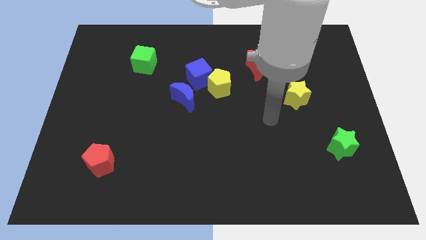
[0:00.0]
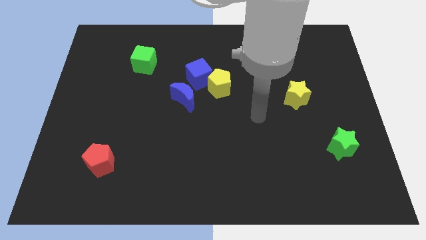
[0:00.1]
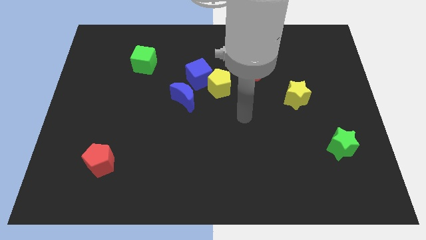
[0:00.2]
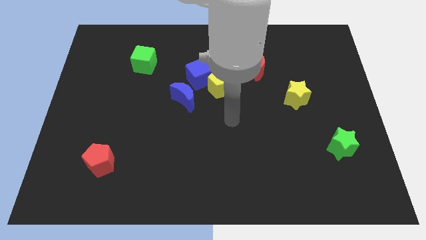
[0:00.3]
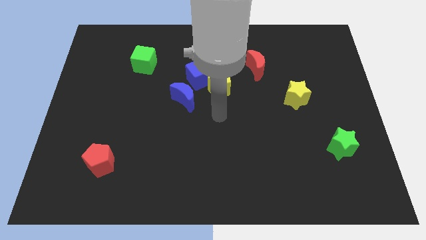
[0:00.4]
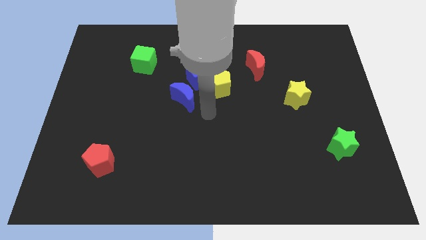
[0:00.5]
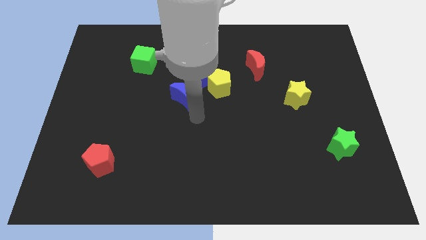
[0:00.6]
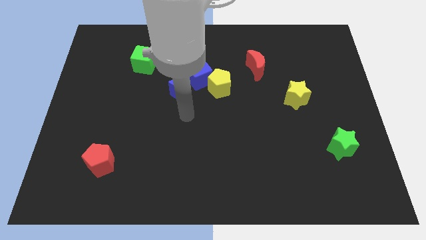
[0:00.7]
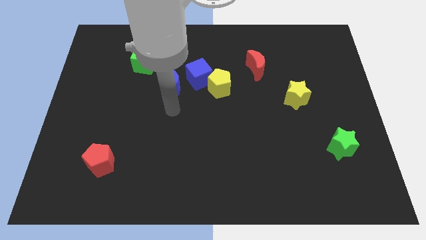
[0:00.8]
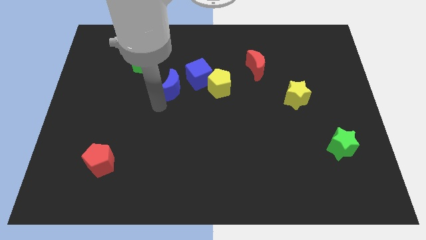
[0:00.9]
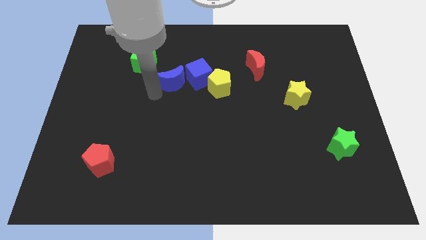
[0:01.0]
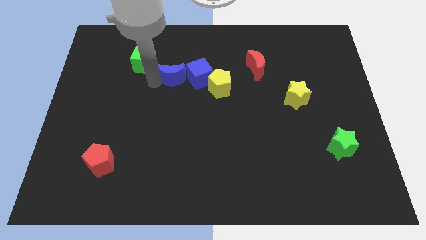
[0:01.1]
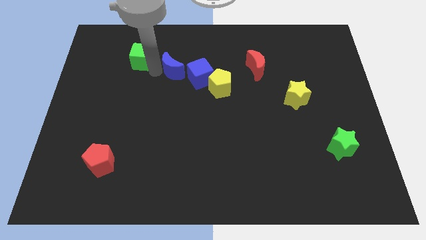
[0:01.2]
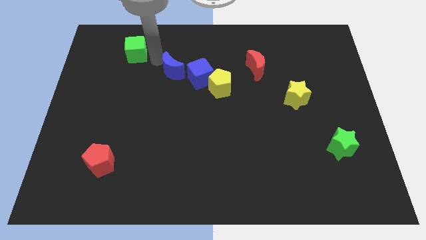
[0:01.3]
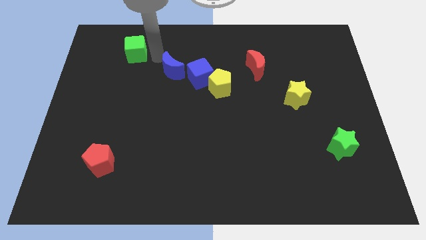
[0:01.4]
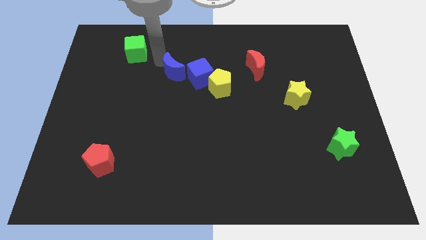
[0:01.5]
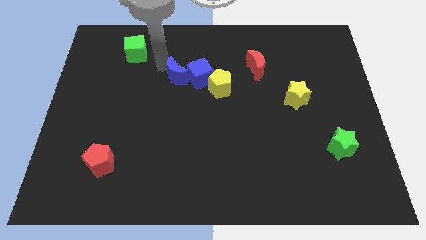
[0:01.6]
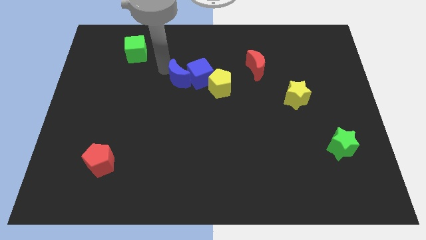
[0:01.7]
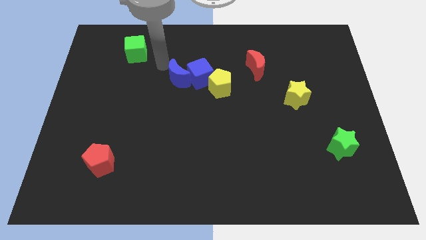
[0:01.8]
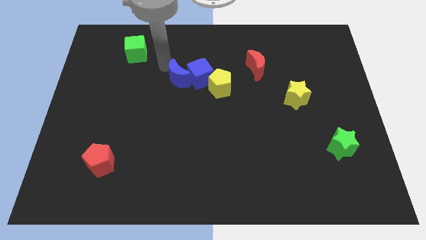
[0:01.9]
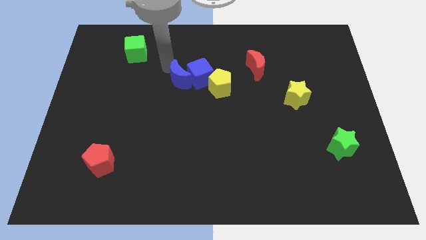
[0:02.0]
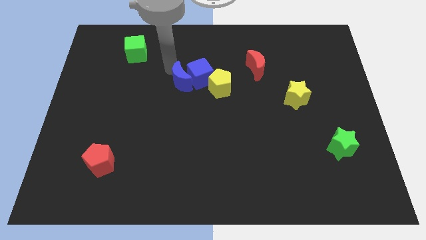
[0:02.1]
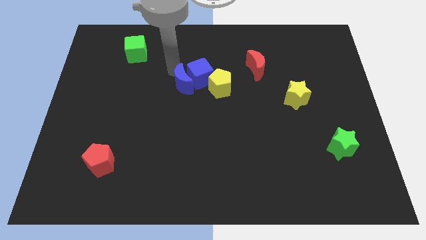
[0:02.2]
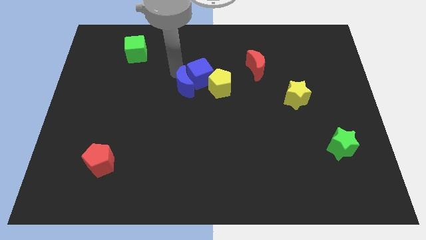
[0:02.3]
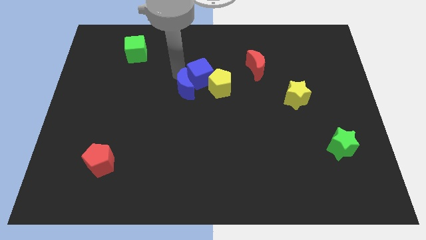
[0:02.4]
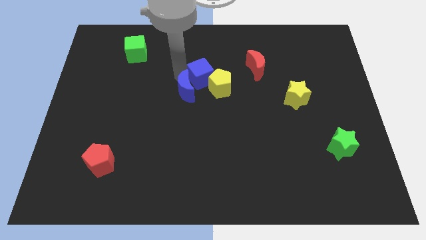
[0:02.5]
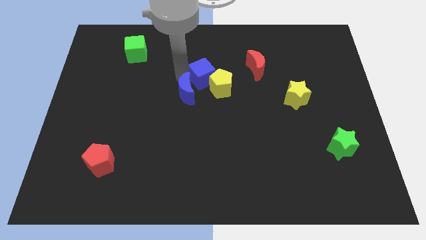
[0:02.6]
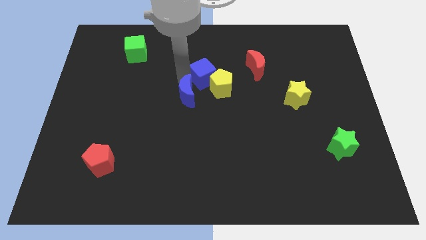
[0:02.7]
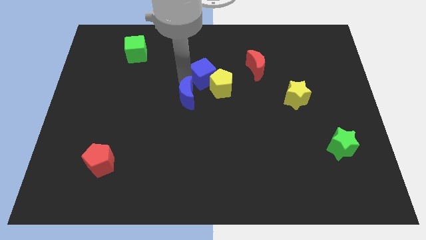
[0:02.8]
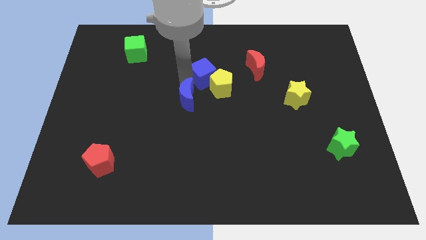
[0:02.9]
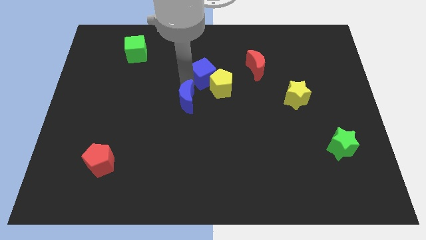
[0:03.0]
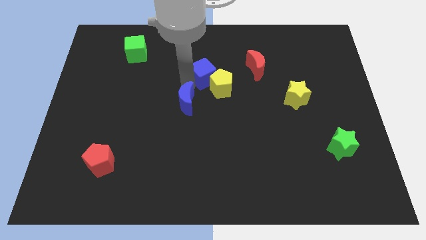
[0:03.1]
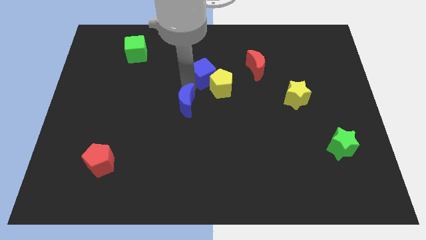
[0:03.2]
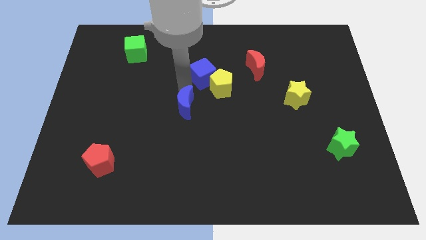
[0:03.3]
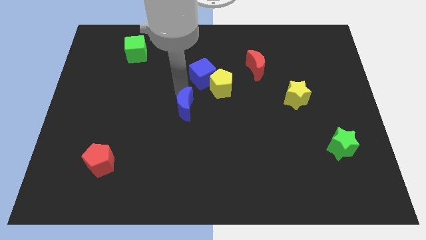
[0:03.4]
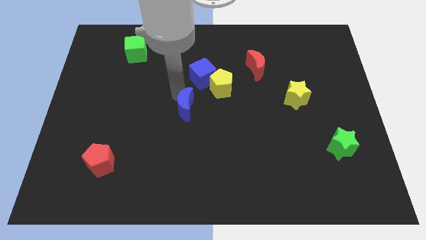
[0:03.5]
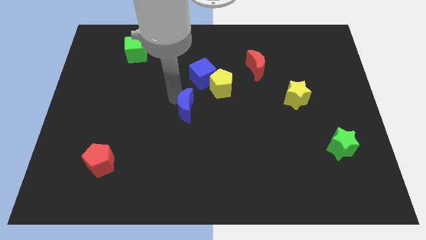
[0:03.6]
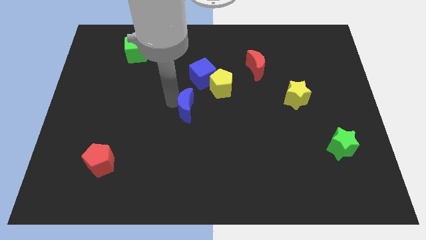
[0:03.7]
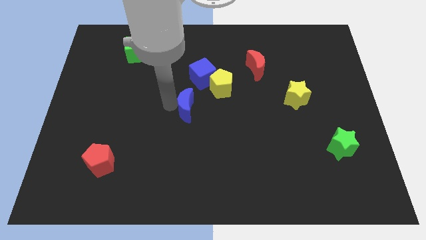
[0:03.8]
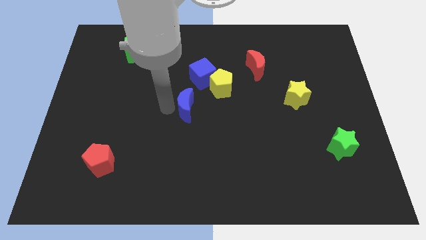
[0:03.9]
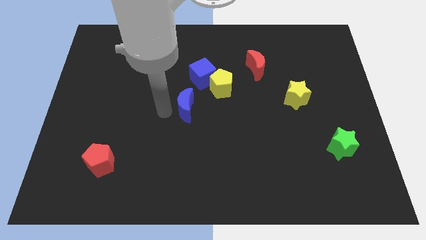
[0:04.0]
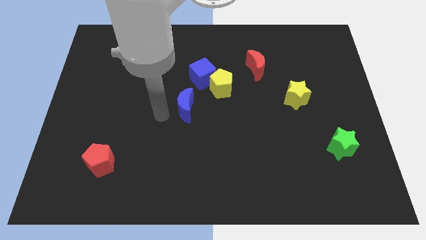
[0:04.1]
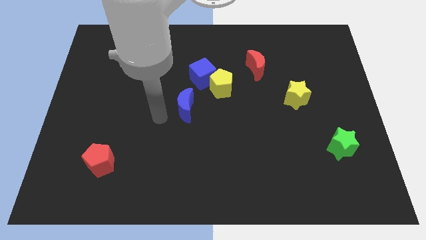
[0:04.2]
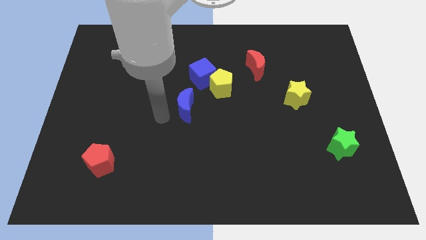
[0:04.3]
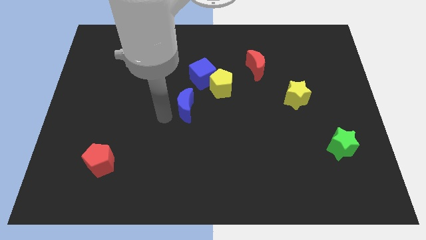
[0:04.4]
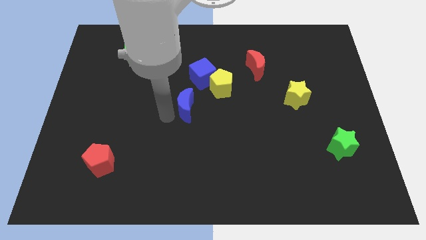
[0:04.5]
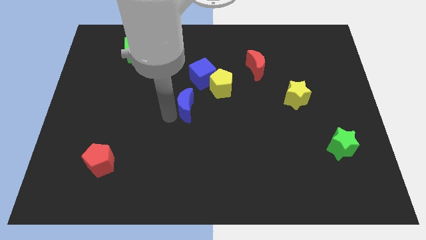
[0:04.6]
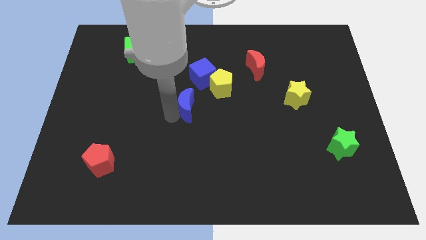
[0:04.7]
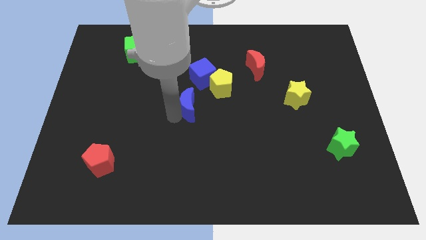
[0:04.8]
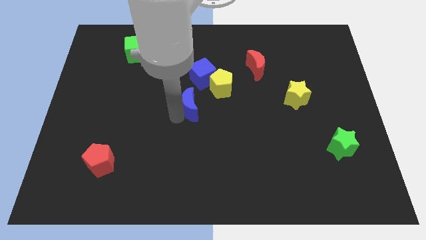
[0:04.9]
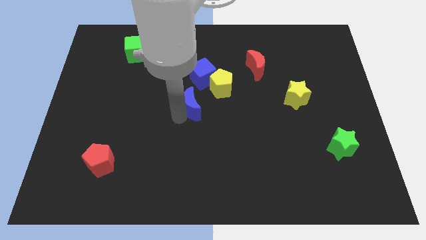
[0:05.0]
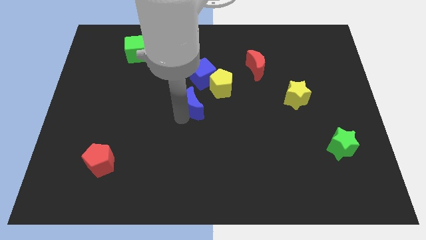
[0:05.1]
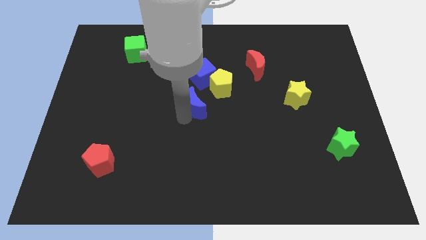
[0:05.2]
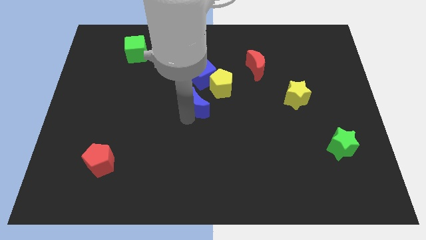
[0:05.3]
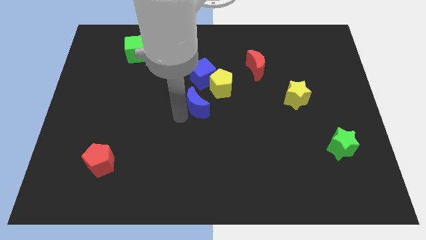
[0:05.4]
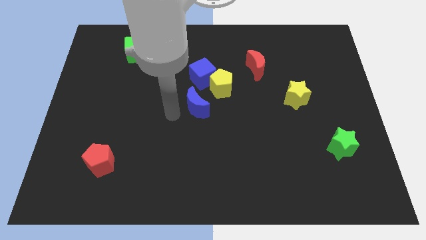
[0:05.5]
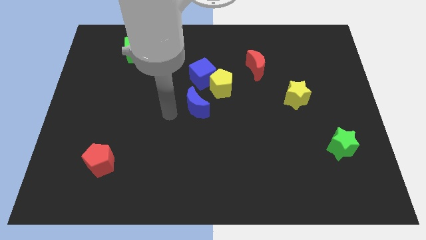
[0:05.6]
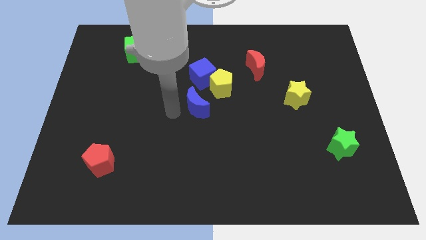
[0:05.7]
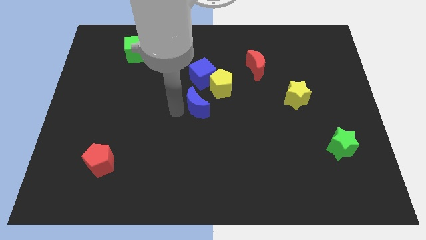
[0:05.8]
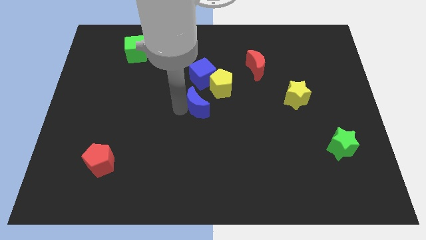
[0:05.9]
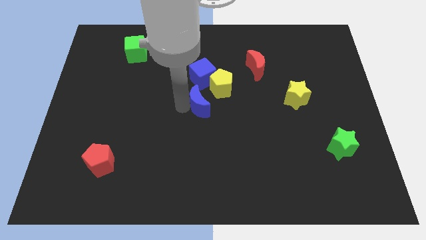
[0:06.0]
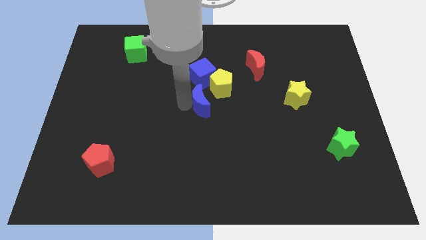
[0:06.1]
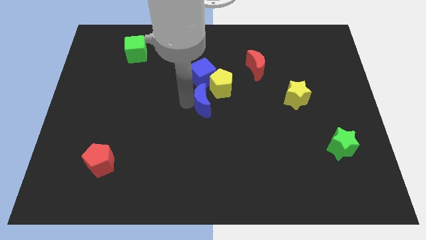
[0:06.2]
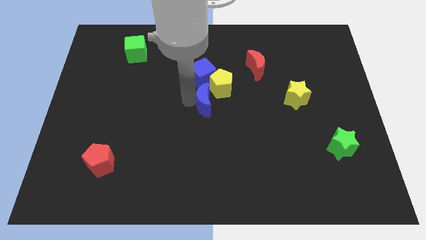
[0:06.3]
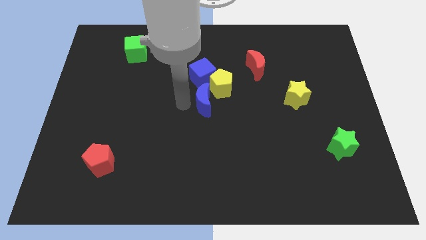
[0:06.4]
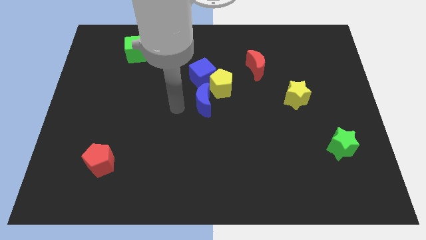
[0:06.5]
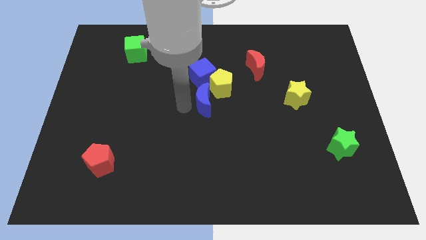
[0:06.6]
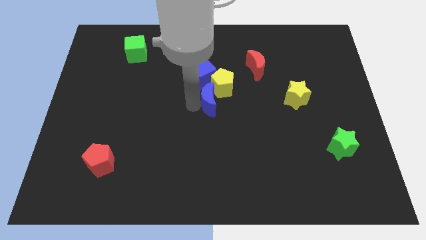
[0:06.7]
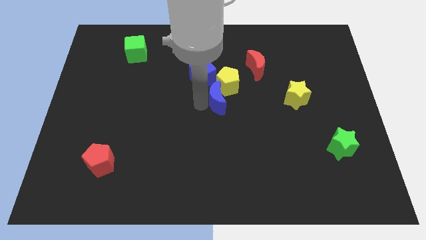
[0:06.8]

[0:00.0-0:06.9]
slightly push the blue moon right

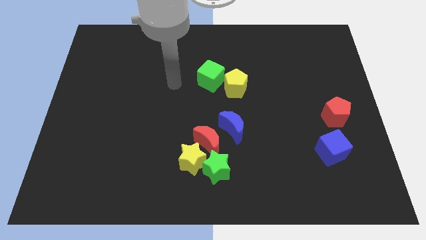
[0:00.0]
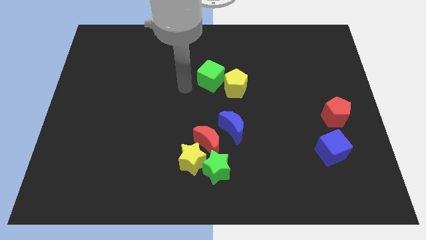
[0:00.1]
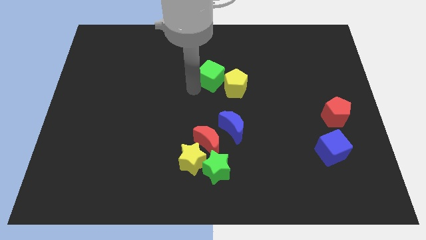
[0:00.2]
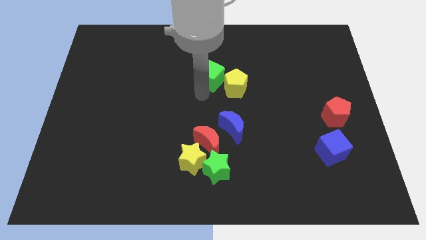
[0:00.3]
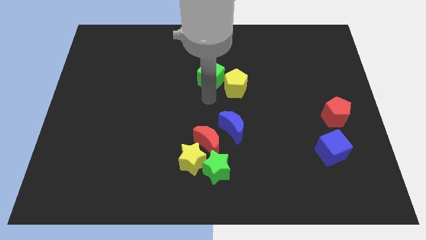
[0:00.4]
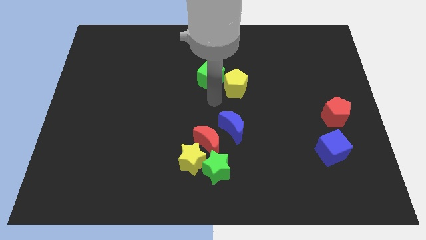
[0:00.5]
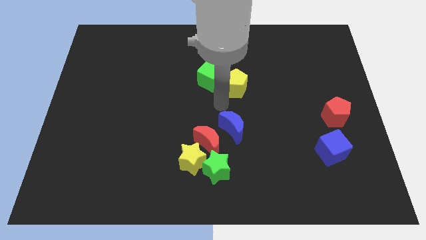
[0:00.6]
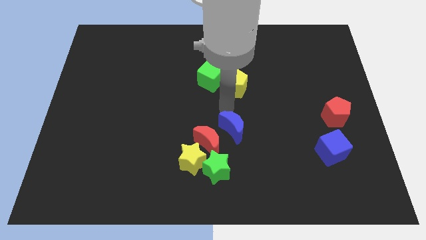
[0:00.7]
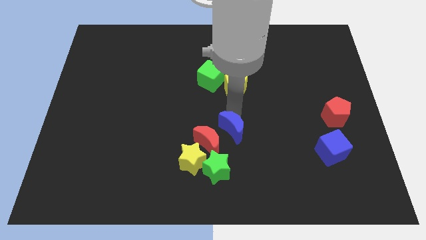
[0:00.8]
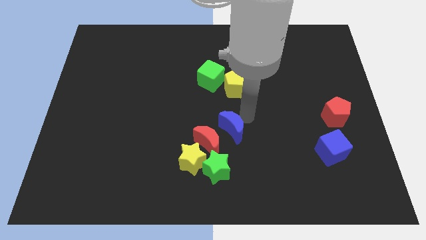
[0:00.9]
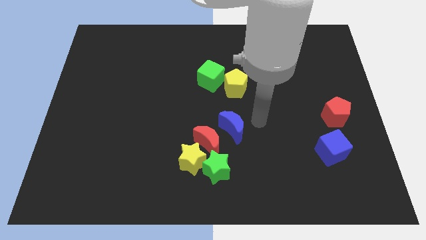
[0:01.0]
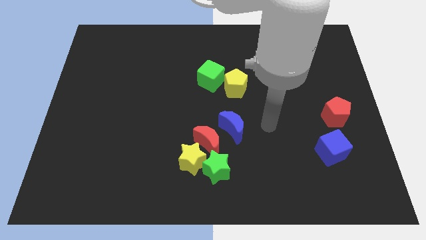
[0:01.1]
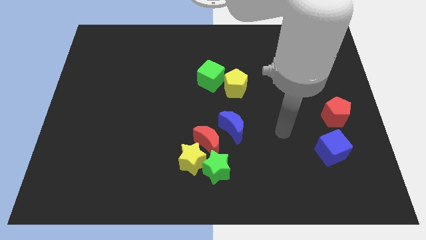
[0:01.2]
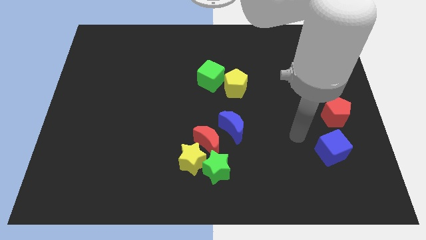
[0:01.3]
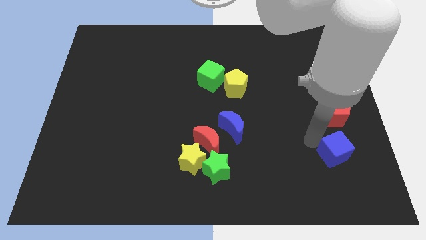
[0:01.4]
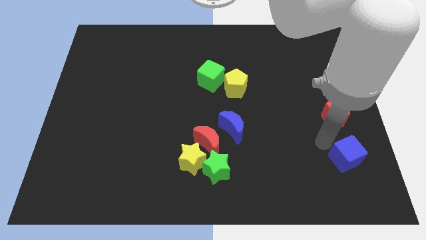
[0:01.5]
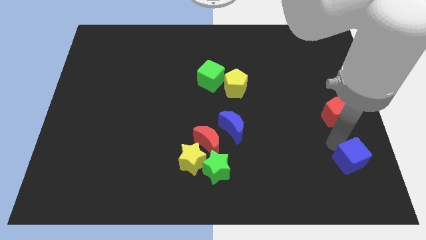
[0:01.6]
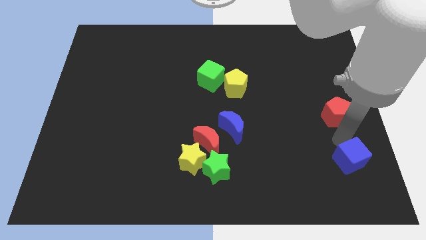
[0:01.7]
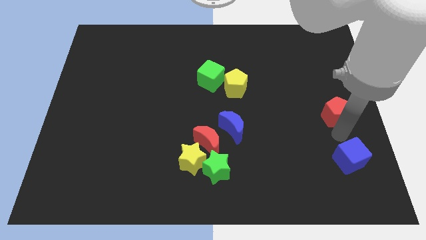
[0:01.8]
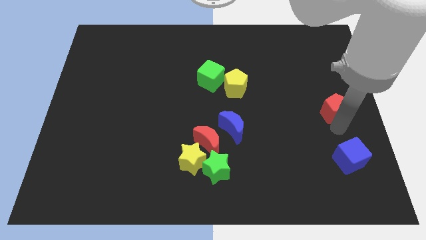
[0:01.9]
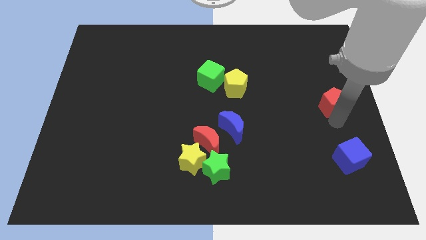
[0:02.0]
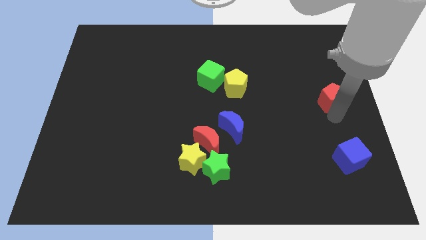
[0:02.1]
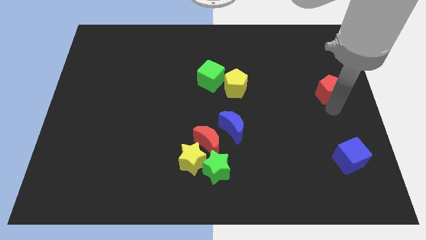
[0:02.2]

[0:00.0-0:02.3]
slide the red pentagon a little bit upwards
